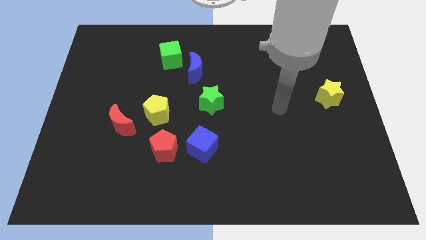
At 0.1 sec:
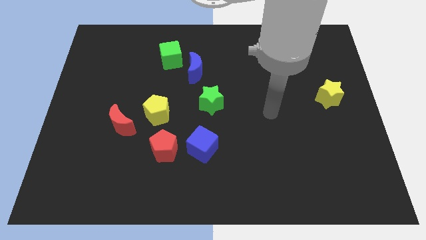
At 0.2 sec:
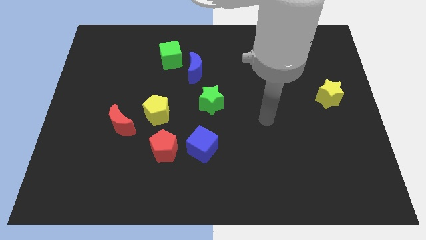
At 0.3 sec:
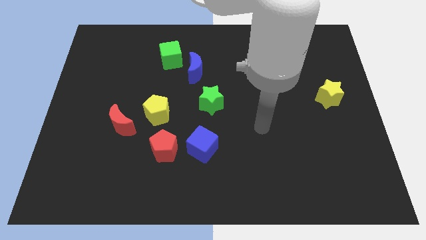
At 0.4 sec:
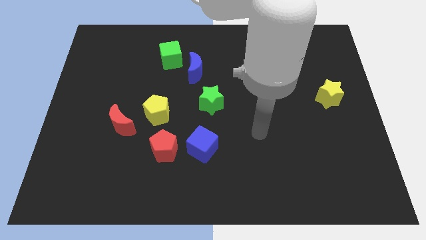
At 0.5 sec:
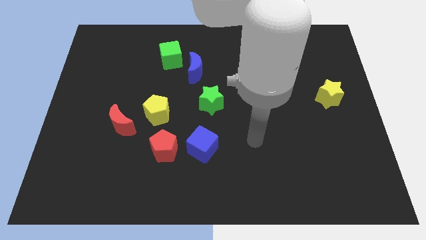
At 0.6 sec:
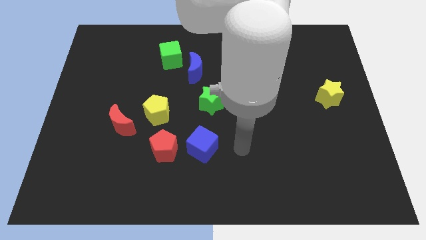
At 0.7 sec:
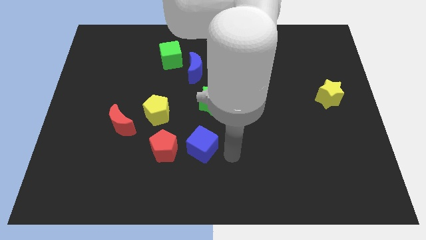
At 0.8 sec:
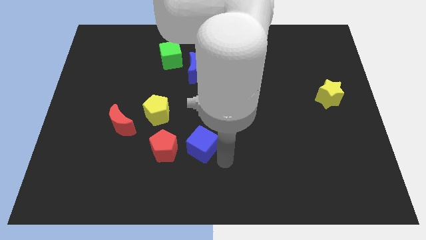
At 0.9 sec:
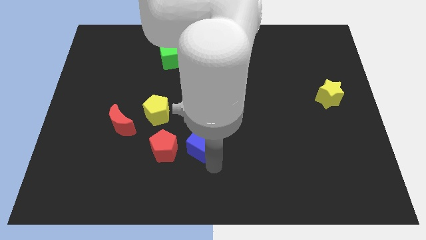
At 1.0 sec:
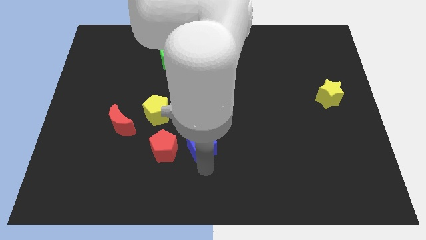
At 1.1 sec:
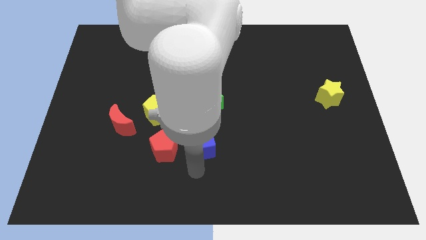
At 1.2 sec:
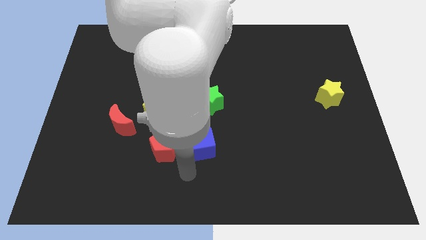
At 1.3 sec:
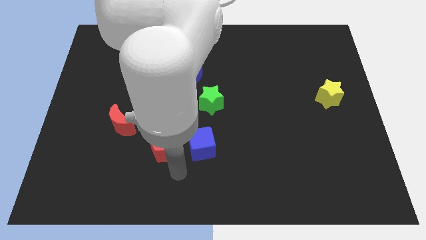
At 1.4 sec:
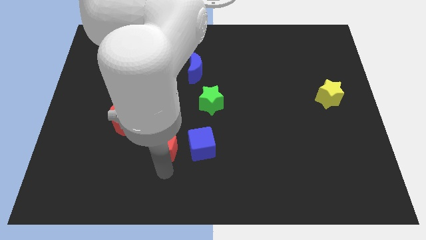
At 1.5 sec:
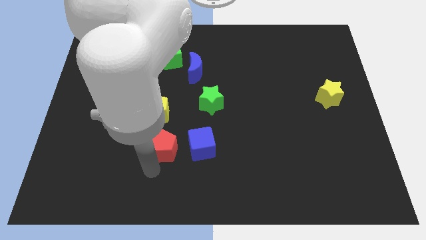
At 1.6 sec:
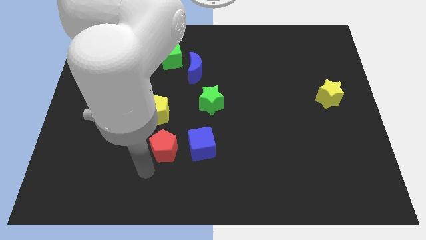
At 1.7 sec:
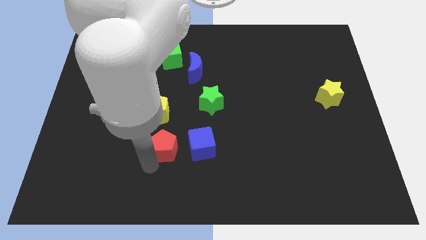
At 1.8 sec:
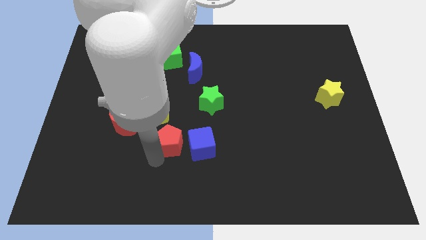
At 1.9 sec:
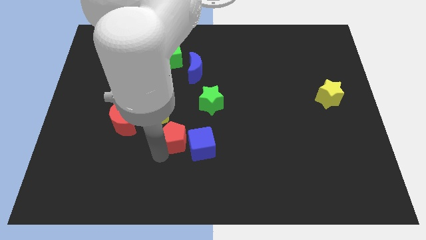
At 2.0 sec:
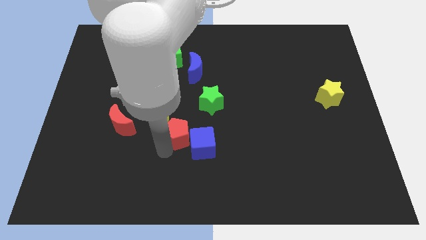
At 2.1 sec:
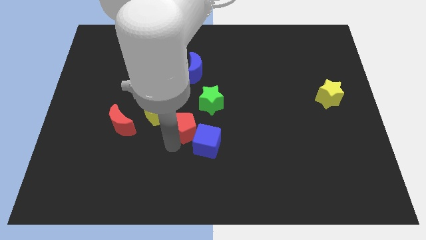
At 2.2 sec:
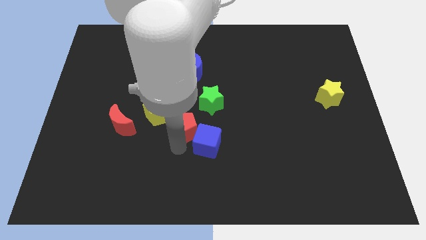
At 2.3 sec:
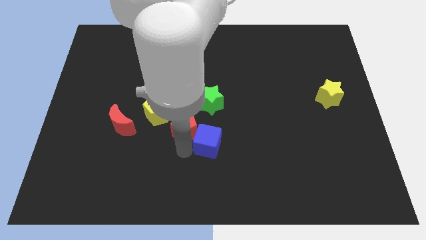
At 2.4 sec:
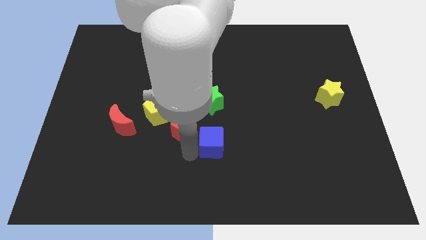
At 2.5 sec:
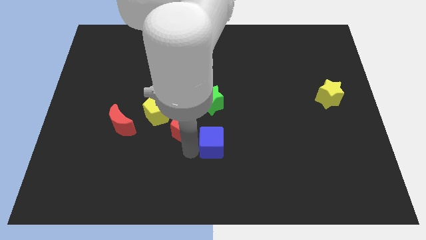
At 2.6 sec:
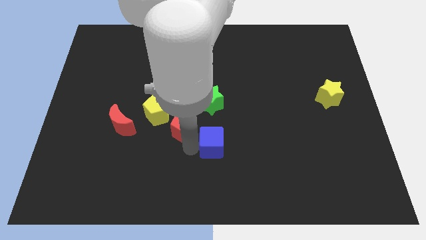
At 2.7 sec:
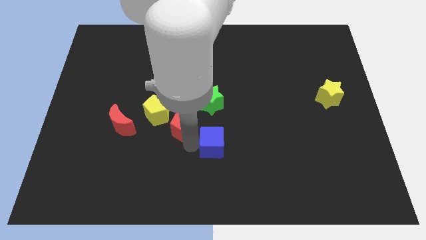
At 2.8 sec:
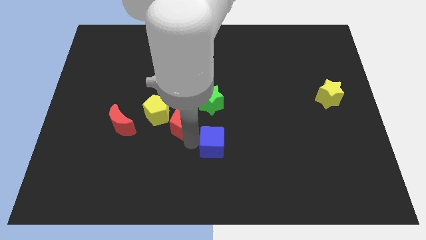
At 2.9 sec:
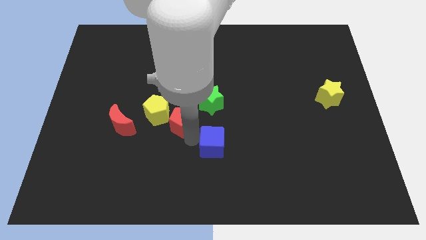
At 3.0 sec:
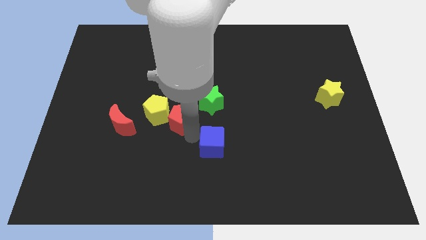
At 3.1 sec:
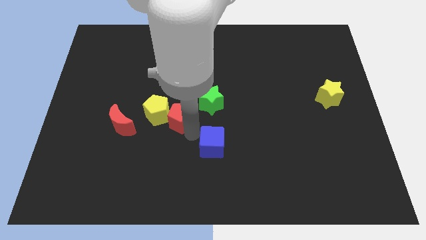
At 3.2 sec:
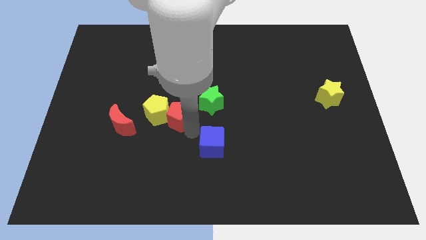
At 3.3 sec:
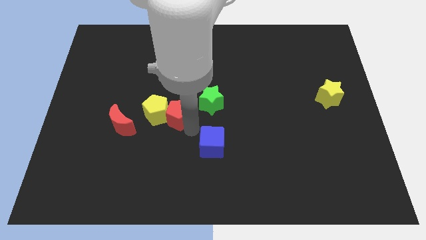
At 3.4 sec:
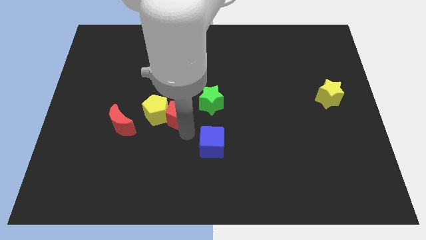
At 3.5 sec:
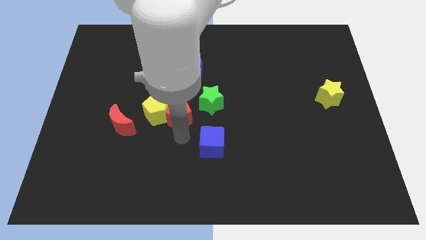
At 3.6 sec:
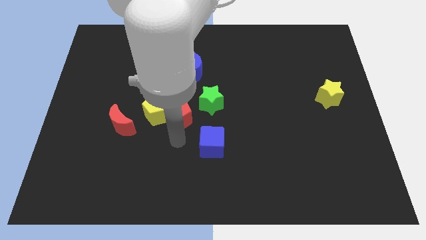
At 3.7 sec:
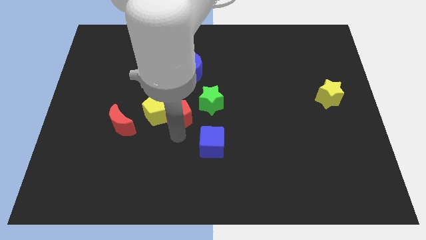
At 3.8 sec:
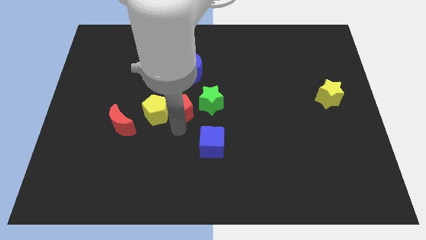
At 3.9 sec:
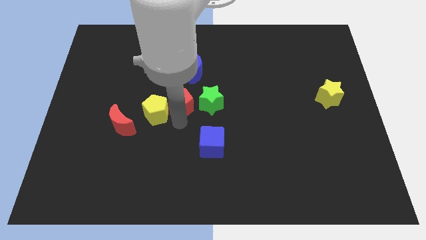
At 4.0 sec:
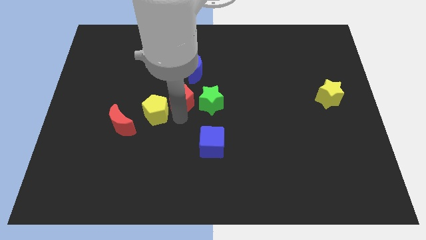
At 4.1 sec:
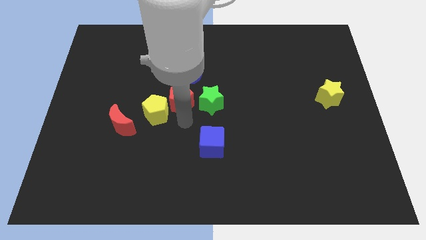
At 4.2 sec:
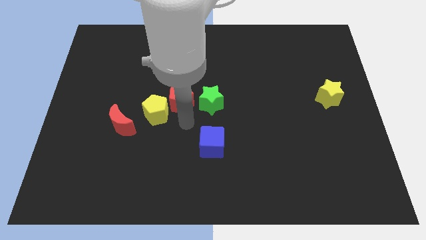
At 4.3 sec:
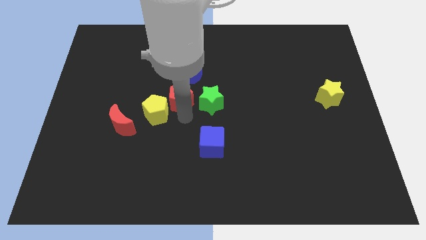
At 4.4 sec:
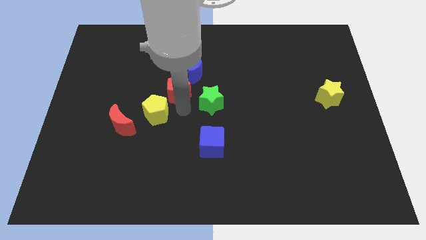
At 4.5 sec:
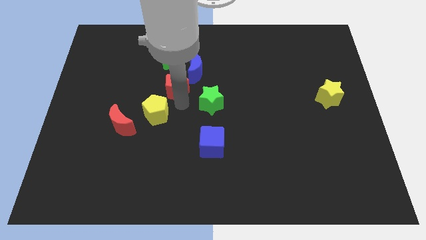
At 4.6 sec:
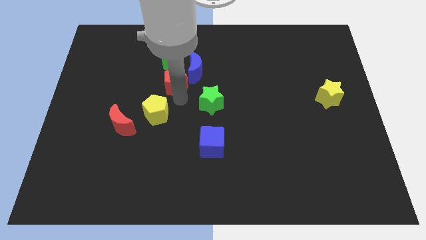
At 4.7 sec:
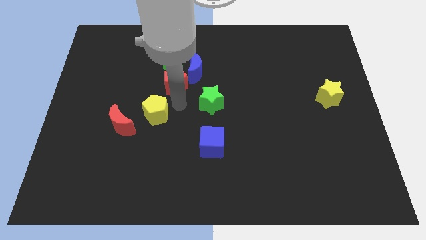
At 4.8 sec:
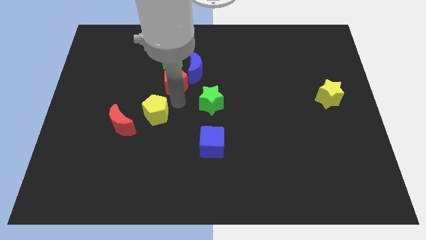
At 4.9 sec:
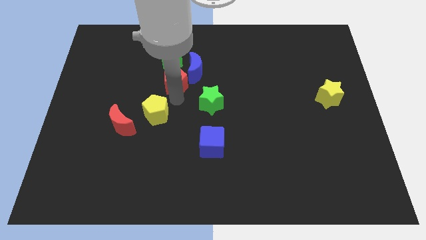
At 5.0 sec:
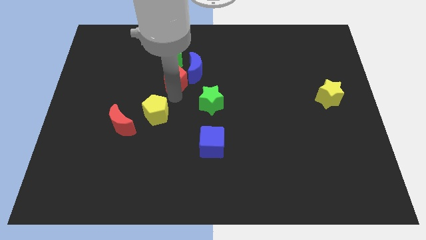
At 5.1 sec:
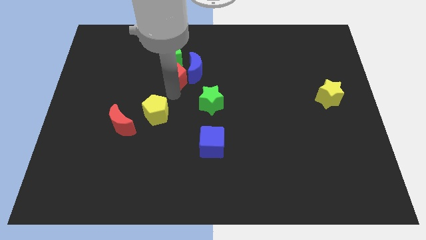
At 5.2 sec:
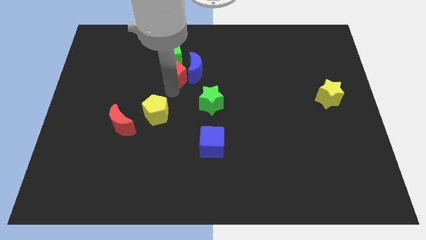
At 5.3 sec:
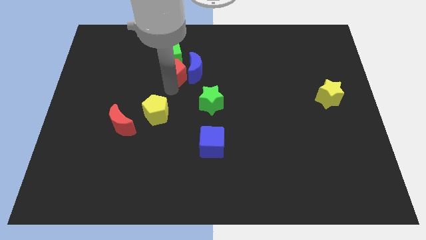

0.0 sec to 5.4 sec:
move the red pentagon close to the green cube

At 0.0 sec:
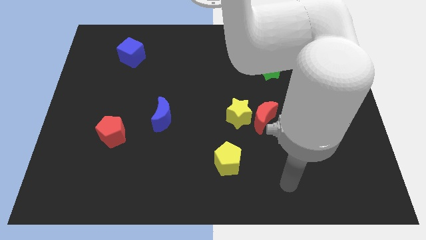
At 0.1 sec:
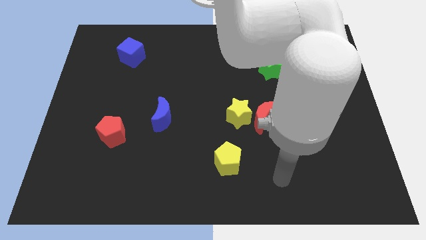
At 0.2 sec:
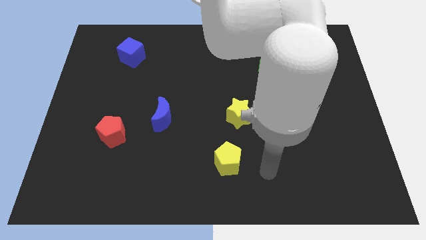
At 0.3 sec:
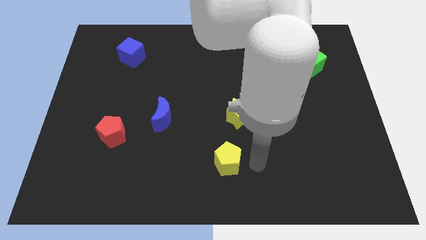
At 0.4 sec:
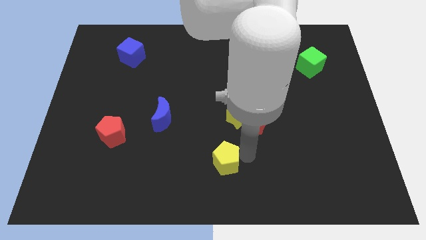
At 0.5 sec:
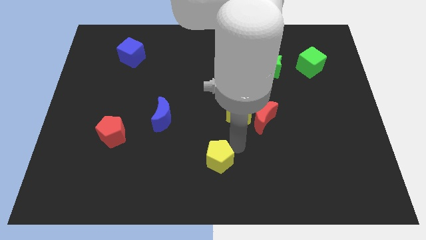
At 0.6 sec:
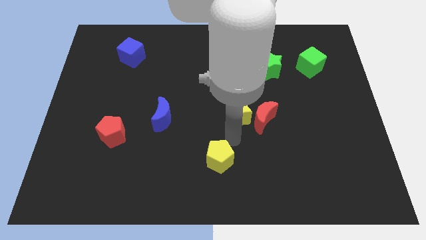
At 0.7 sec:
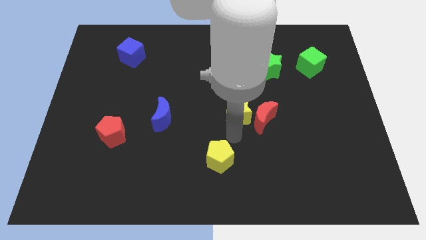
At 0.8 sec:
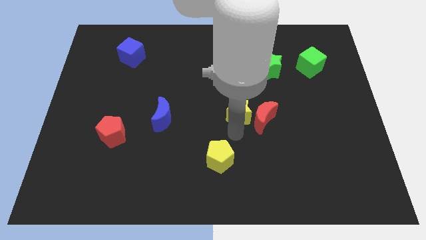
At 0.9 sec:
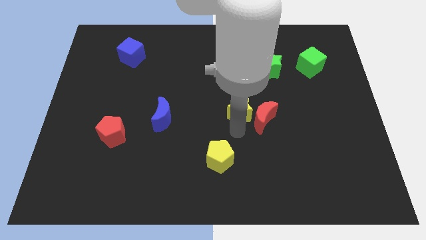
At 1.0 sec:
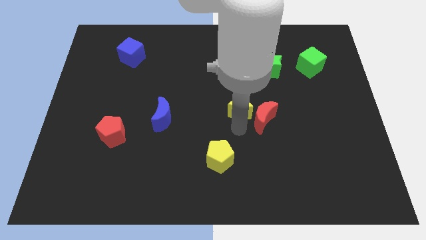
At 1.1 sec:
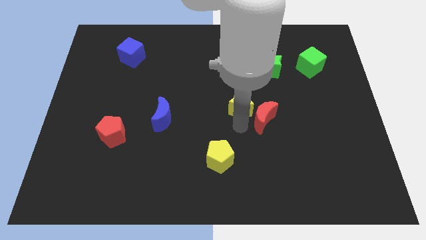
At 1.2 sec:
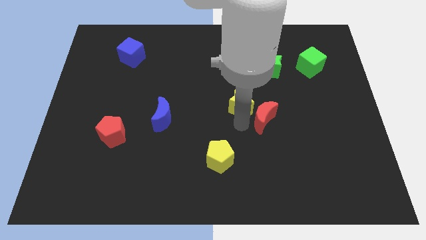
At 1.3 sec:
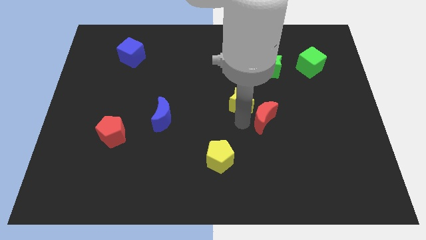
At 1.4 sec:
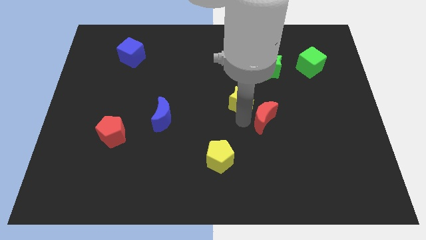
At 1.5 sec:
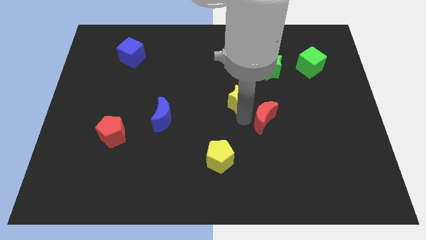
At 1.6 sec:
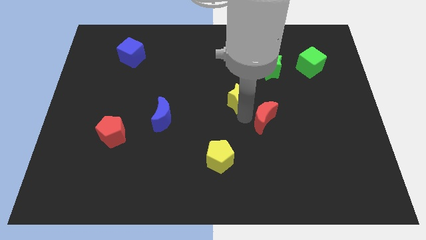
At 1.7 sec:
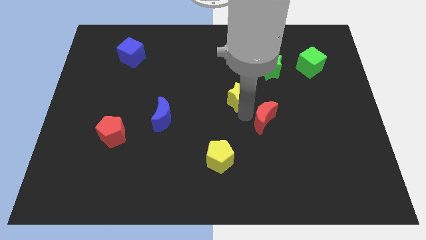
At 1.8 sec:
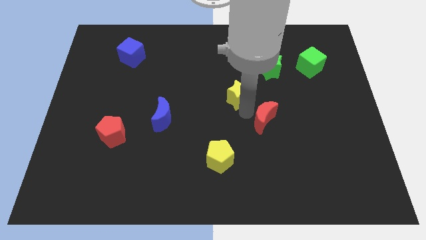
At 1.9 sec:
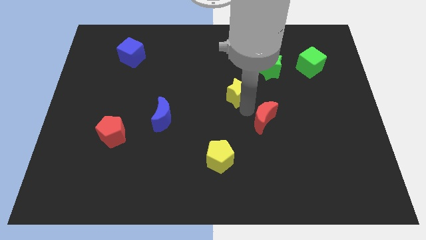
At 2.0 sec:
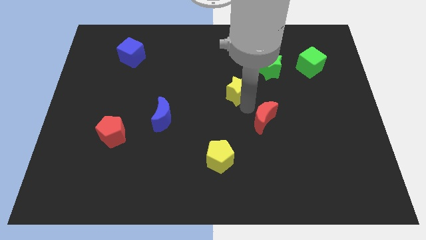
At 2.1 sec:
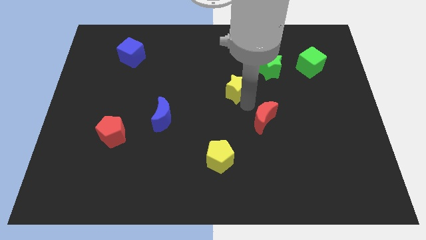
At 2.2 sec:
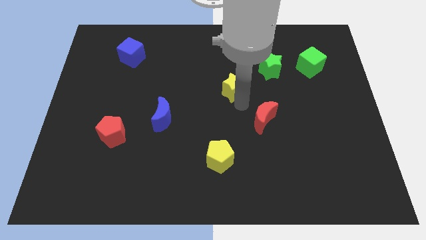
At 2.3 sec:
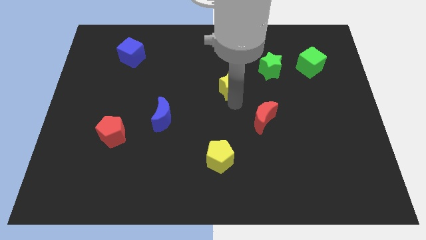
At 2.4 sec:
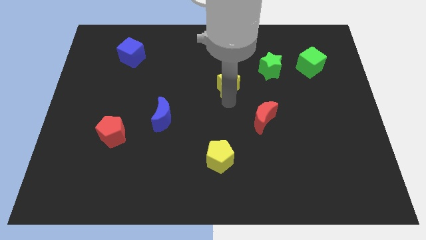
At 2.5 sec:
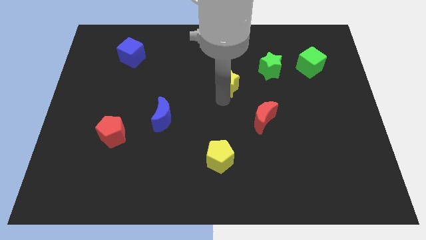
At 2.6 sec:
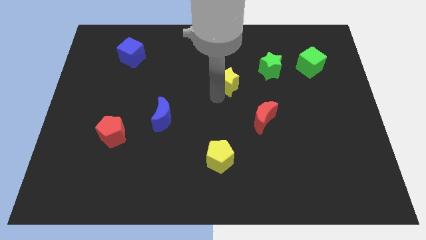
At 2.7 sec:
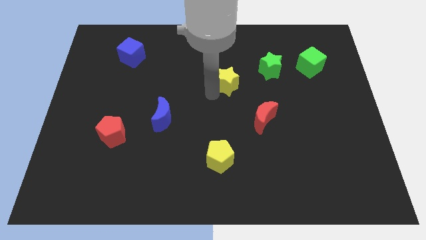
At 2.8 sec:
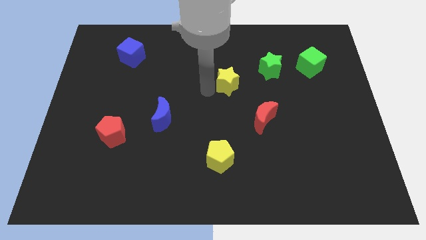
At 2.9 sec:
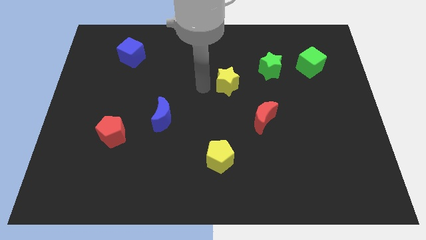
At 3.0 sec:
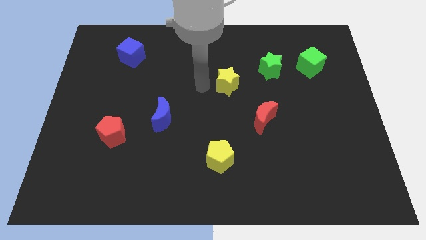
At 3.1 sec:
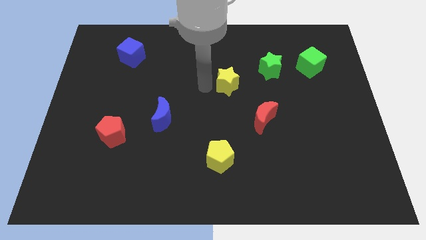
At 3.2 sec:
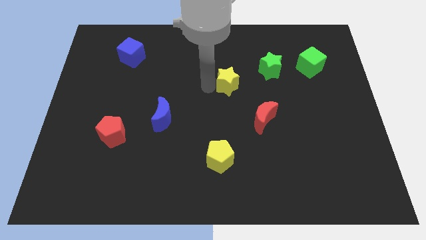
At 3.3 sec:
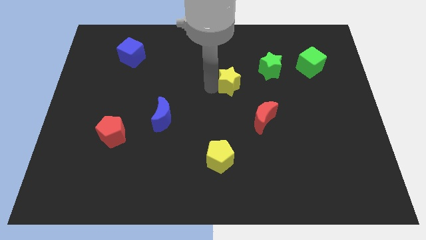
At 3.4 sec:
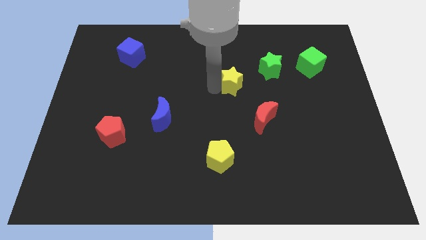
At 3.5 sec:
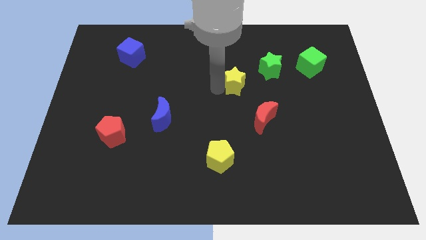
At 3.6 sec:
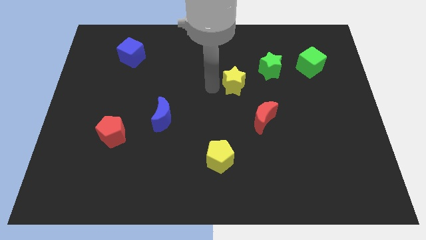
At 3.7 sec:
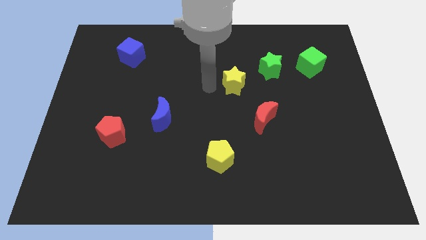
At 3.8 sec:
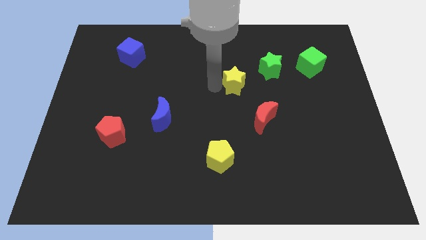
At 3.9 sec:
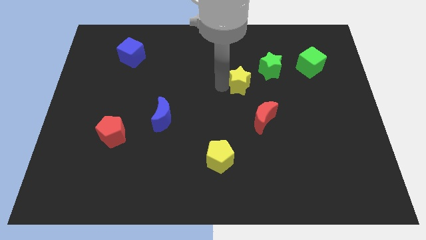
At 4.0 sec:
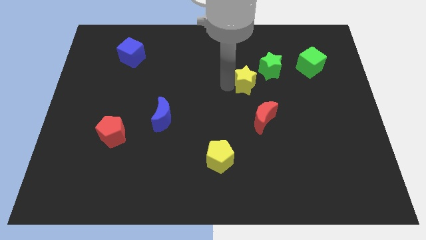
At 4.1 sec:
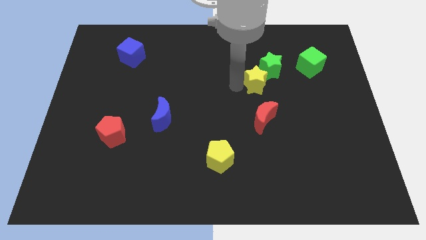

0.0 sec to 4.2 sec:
put the yellow star towards the green star
